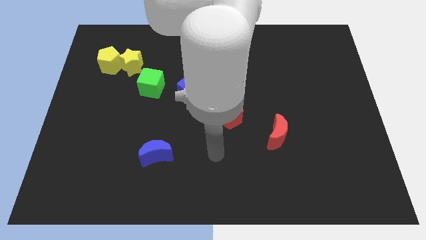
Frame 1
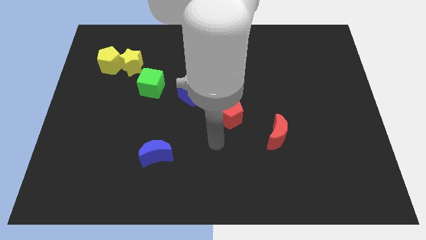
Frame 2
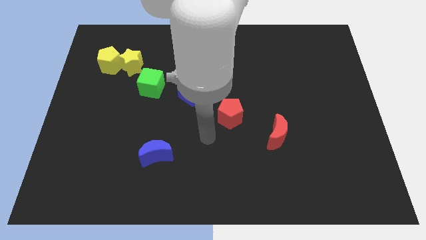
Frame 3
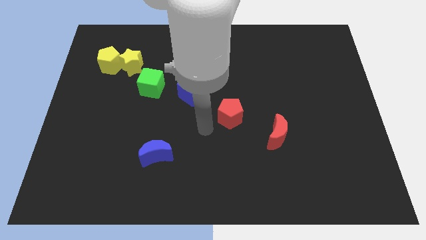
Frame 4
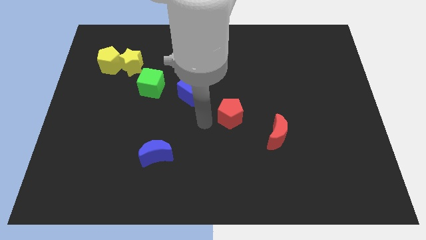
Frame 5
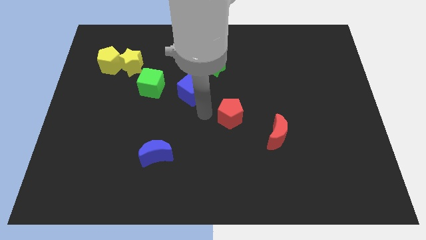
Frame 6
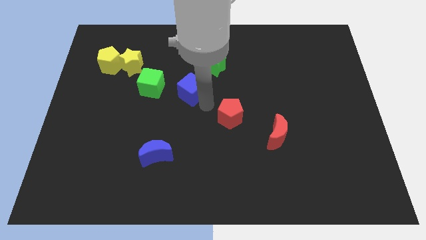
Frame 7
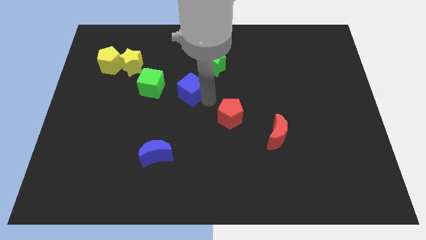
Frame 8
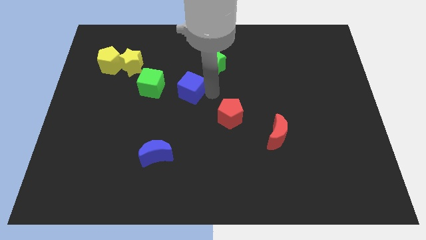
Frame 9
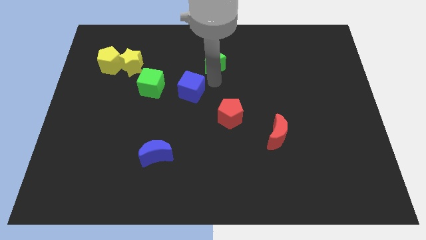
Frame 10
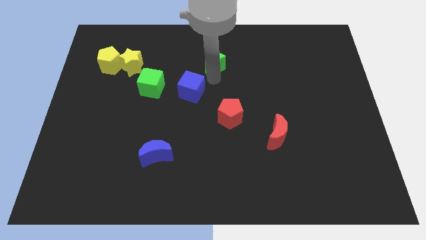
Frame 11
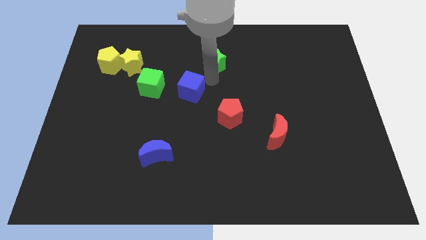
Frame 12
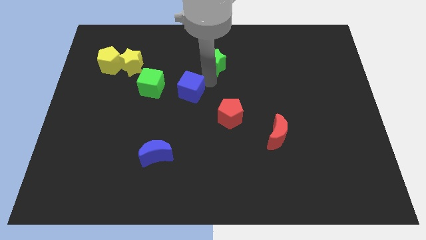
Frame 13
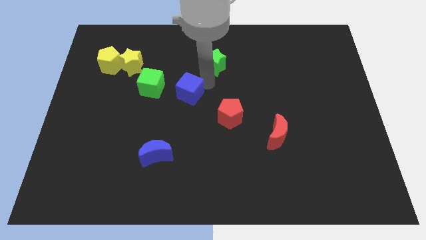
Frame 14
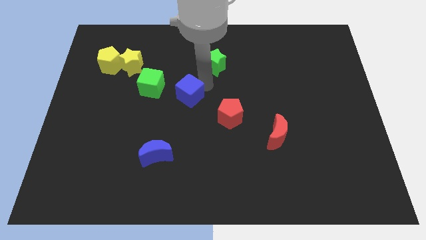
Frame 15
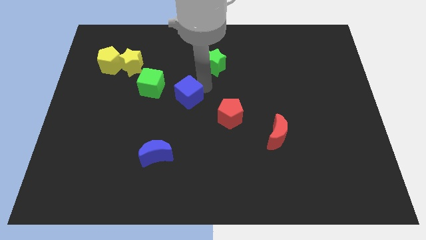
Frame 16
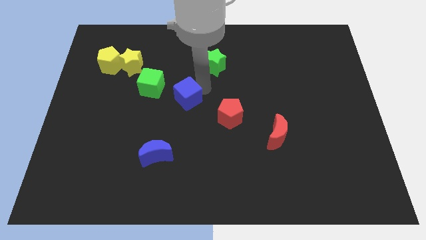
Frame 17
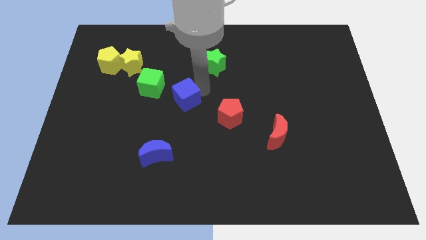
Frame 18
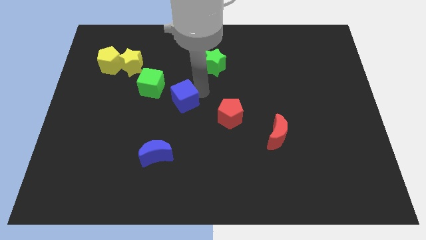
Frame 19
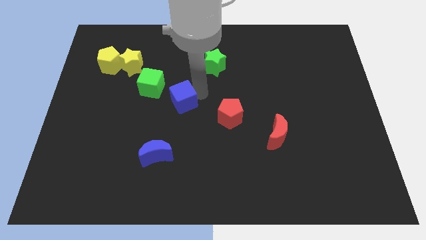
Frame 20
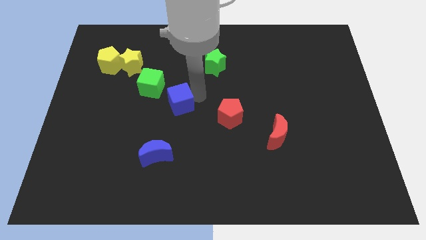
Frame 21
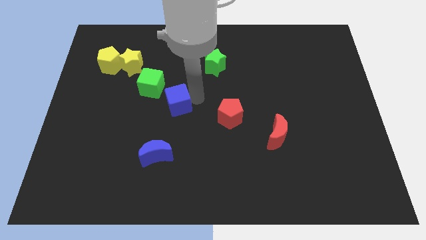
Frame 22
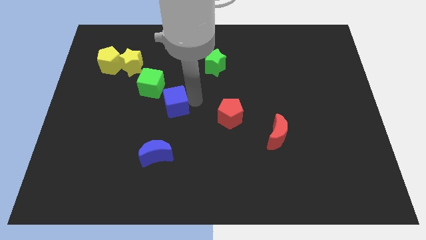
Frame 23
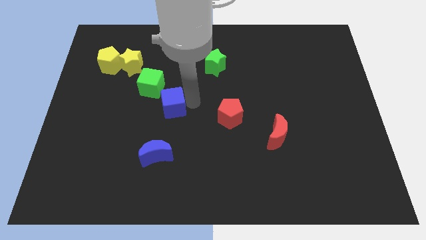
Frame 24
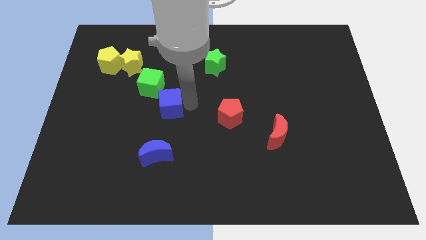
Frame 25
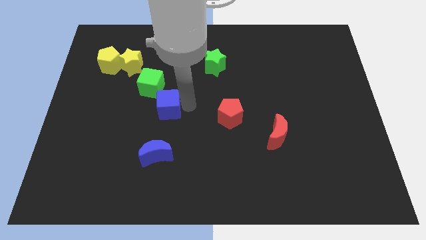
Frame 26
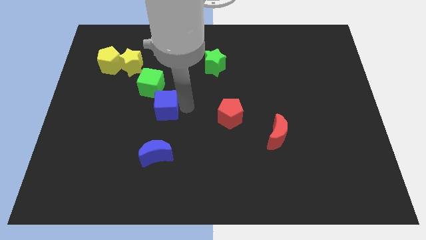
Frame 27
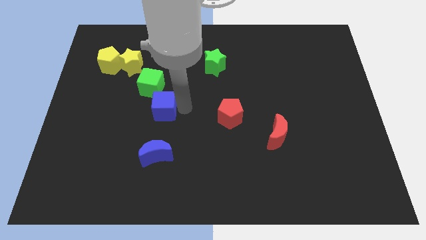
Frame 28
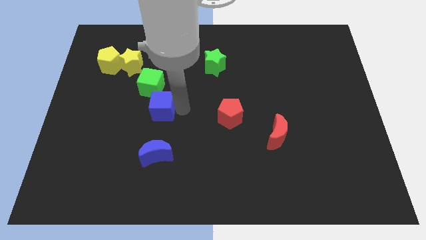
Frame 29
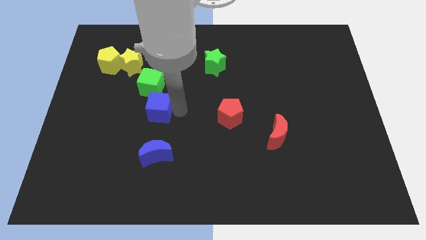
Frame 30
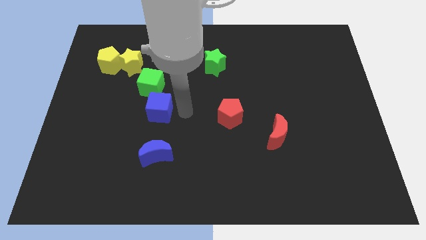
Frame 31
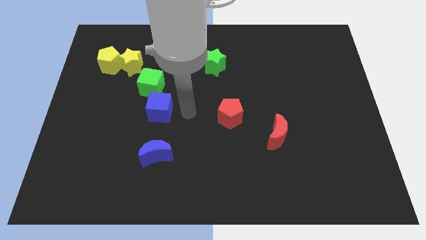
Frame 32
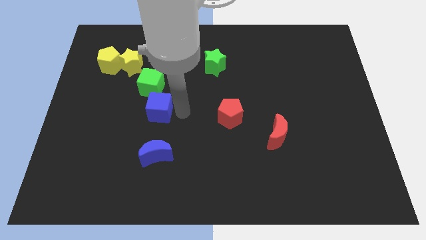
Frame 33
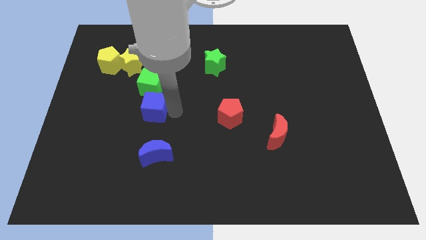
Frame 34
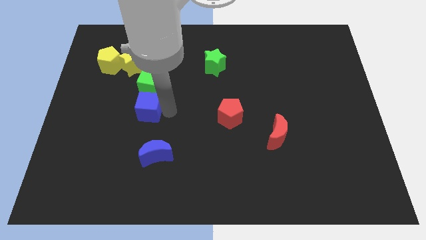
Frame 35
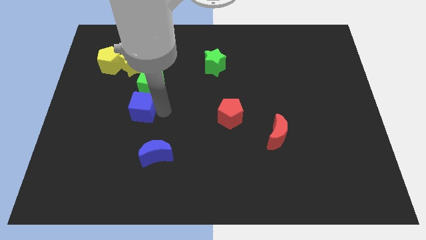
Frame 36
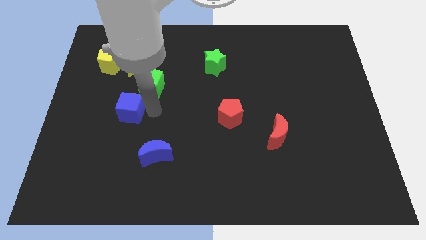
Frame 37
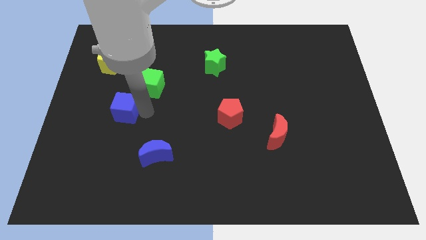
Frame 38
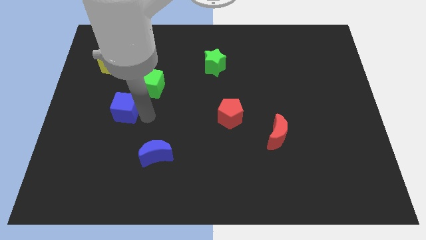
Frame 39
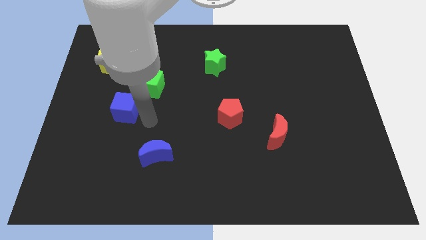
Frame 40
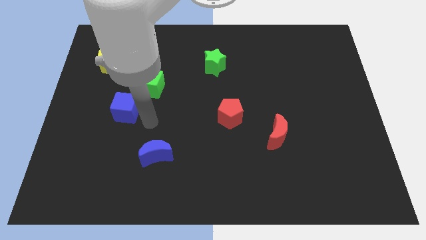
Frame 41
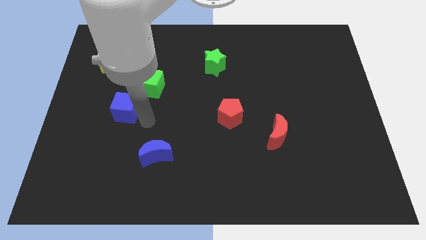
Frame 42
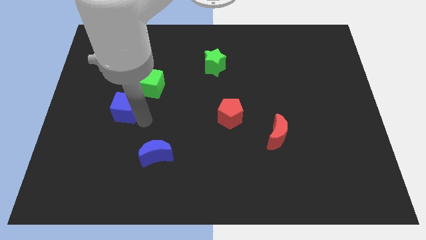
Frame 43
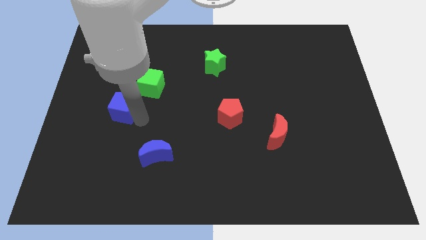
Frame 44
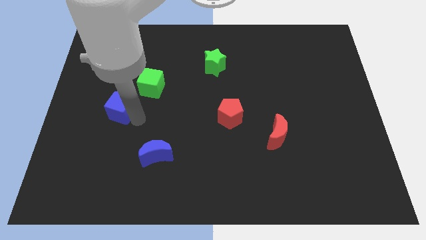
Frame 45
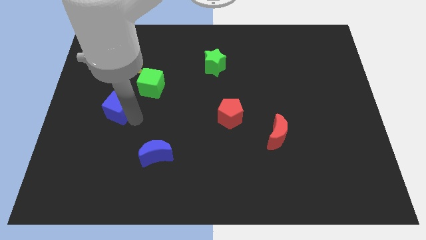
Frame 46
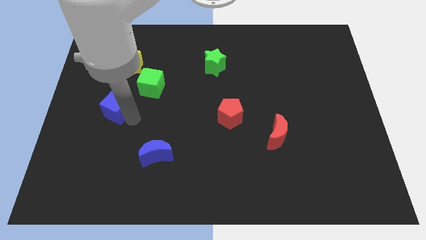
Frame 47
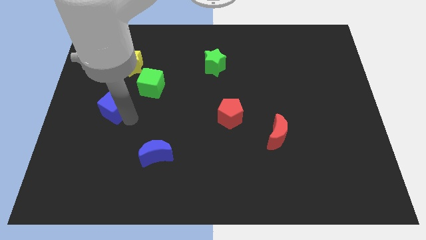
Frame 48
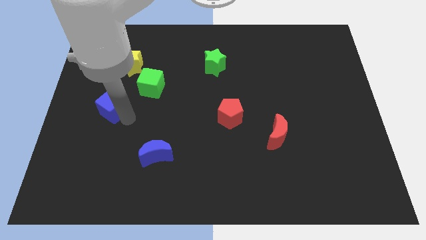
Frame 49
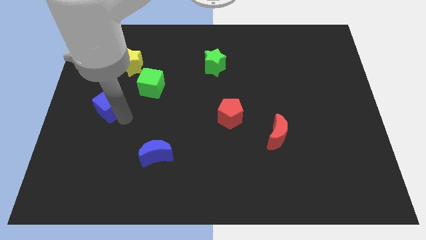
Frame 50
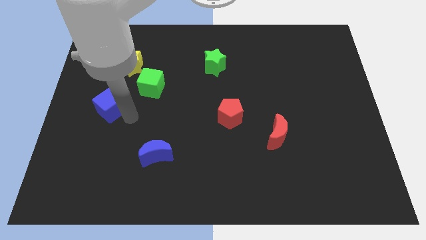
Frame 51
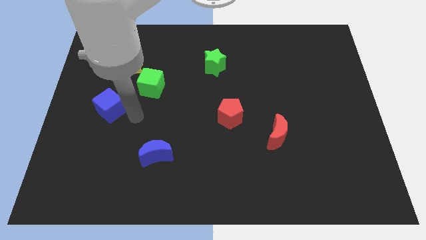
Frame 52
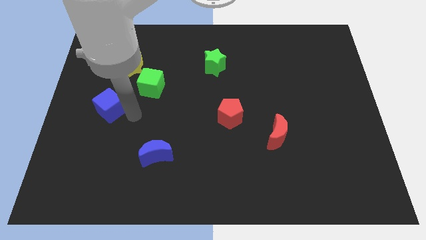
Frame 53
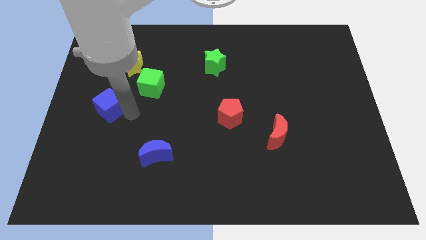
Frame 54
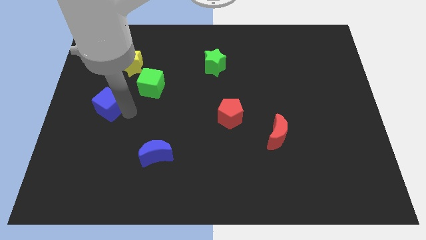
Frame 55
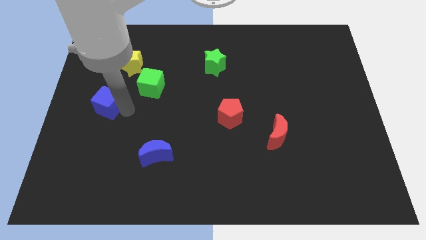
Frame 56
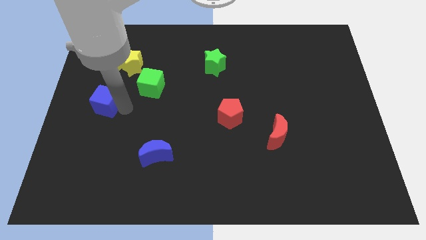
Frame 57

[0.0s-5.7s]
put the blue cube to the left side
